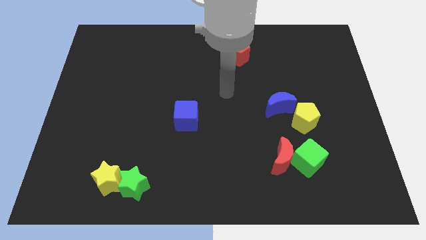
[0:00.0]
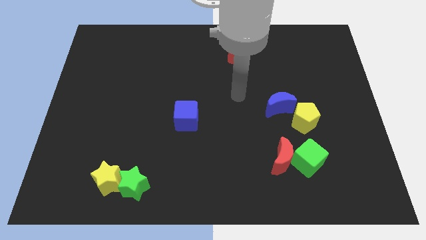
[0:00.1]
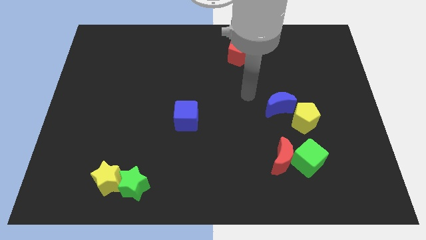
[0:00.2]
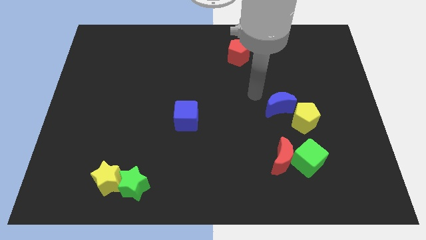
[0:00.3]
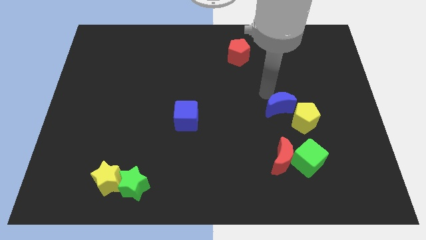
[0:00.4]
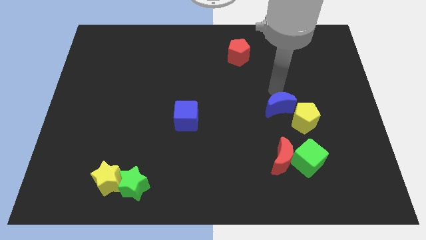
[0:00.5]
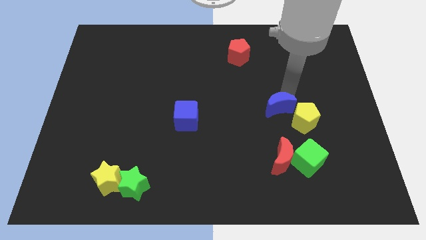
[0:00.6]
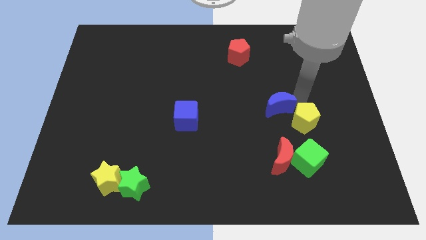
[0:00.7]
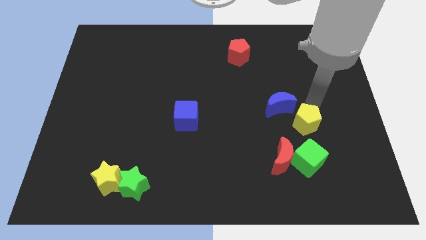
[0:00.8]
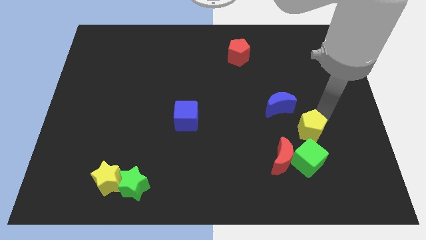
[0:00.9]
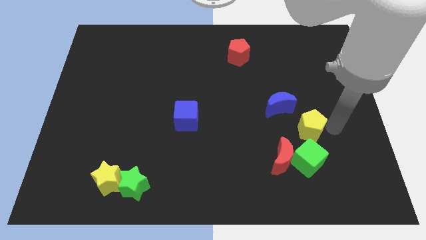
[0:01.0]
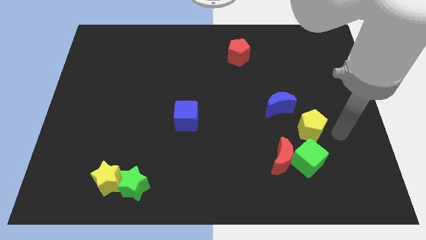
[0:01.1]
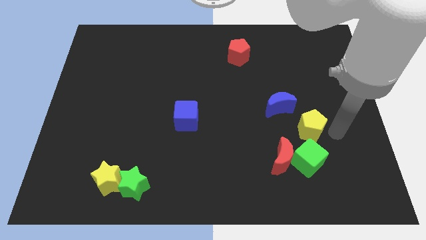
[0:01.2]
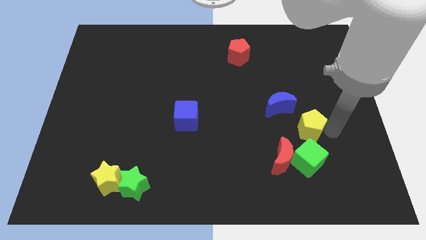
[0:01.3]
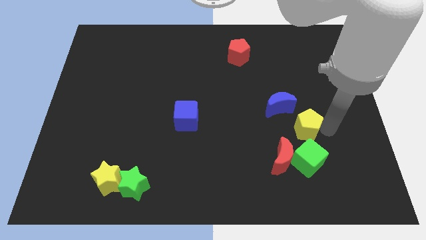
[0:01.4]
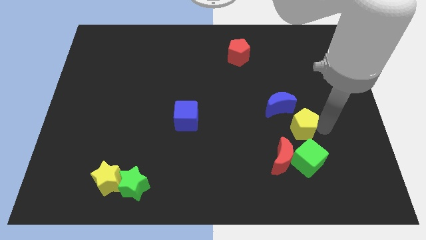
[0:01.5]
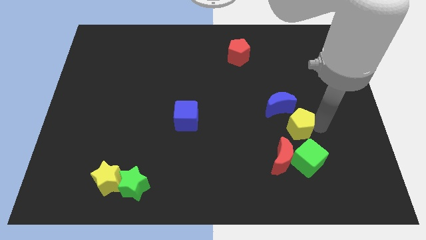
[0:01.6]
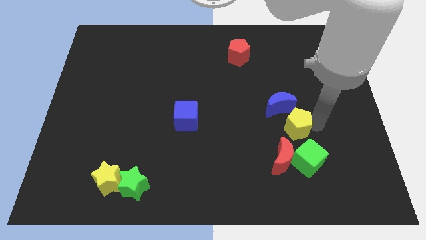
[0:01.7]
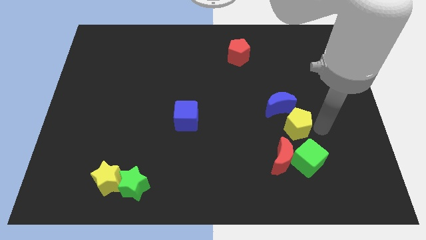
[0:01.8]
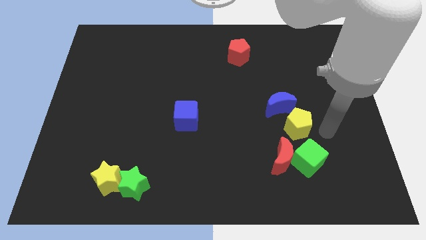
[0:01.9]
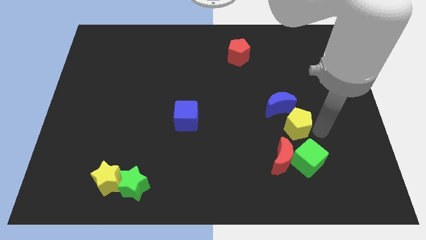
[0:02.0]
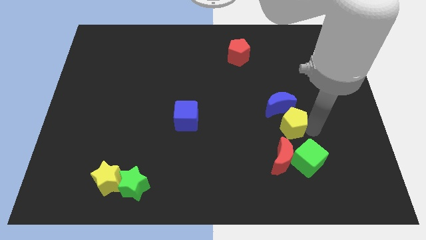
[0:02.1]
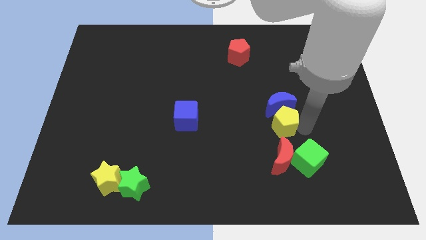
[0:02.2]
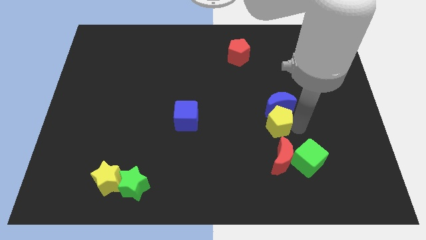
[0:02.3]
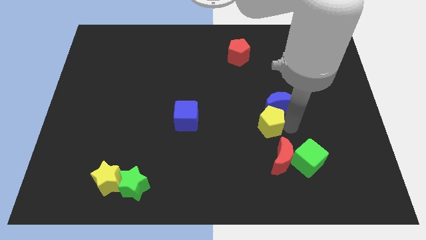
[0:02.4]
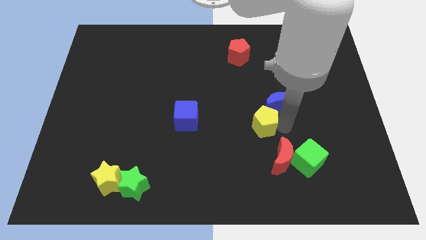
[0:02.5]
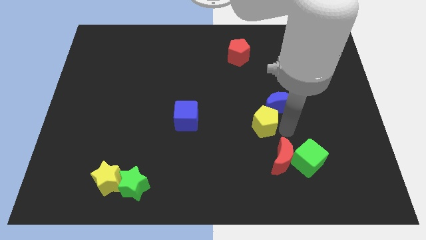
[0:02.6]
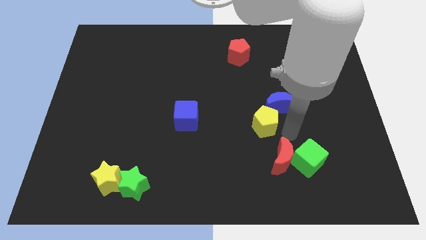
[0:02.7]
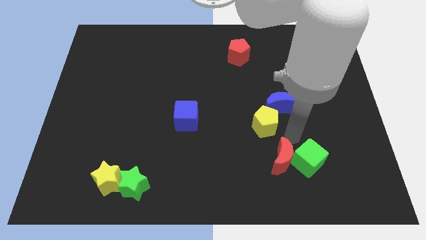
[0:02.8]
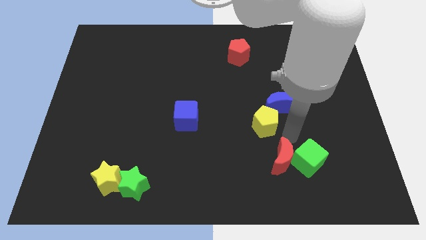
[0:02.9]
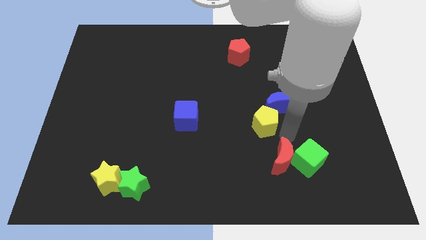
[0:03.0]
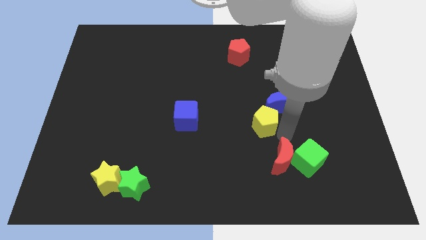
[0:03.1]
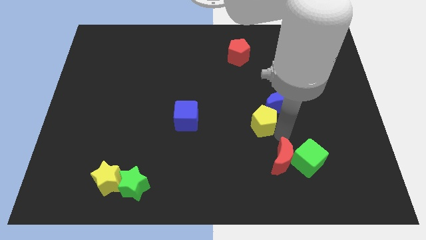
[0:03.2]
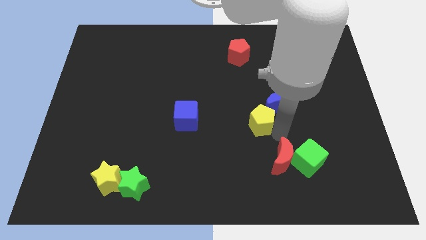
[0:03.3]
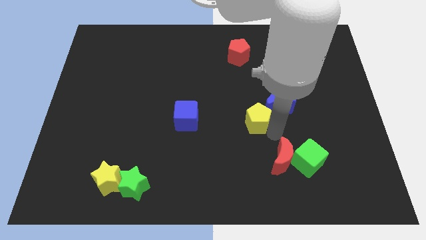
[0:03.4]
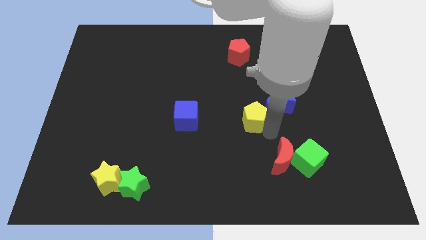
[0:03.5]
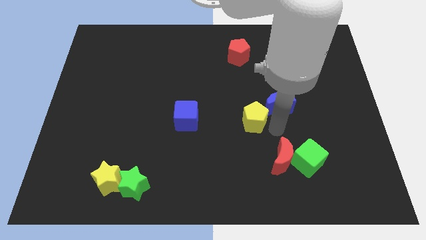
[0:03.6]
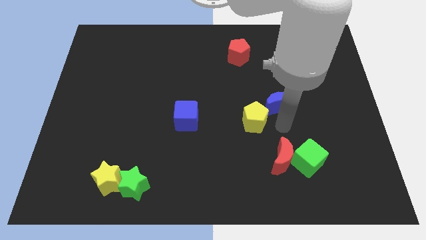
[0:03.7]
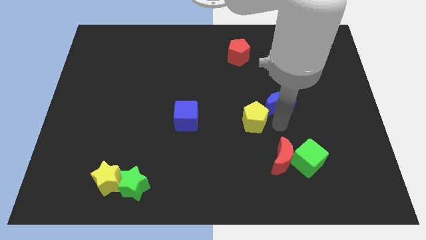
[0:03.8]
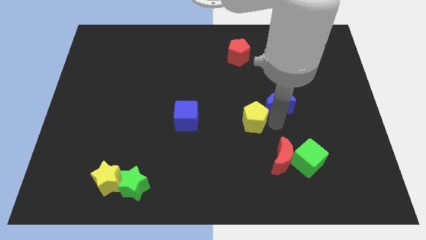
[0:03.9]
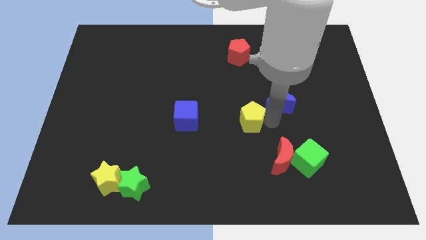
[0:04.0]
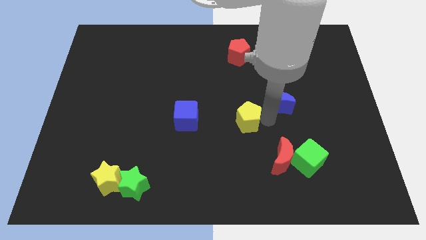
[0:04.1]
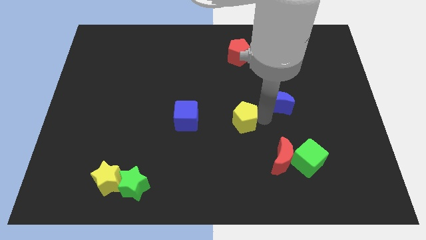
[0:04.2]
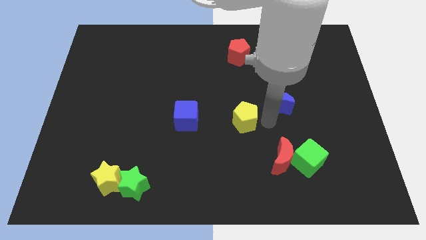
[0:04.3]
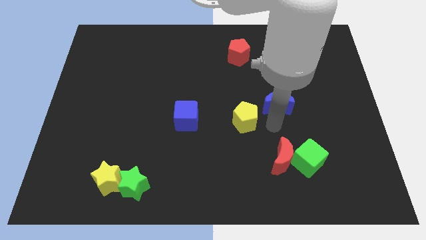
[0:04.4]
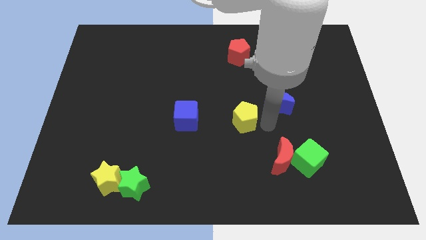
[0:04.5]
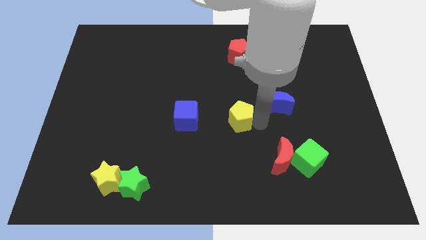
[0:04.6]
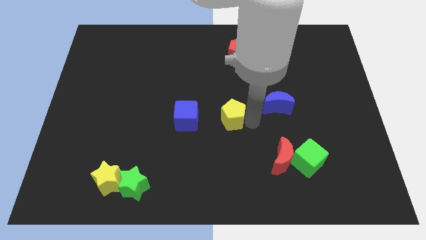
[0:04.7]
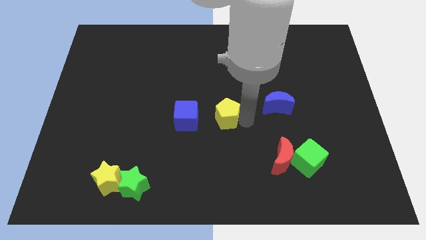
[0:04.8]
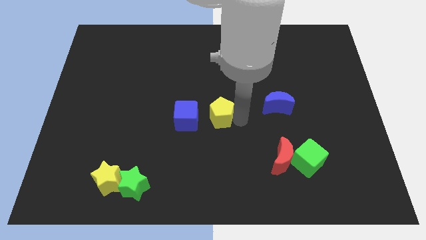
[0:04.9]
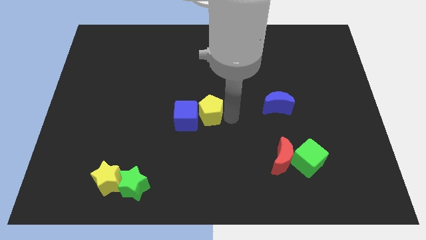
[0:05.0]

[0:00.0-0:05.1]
move the yellow pentagon next to the blue cube

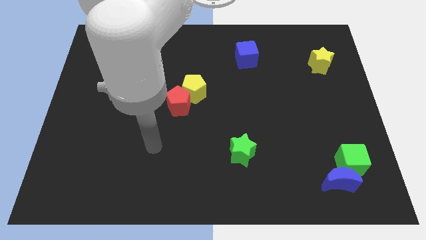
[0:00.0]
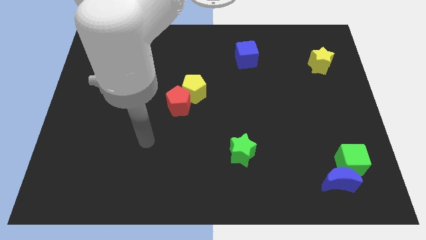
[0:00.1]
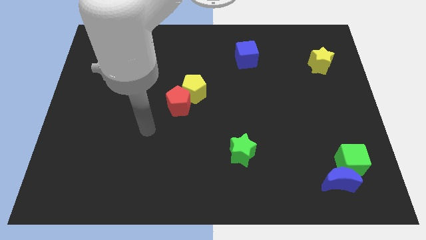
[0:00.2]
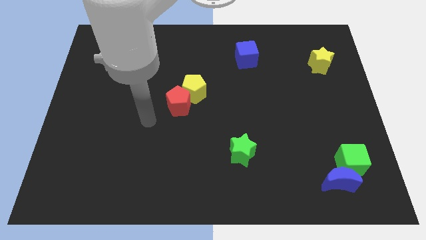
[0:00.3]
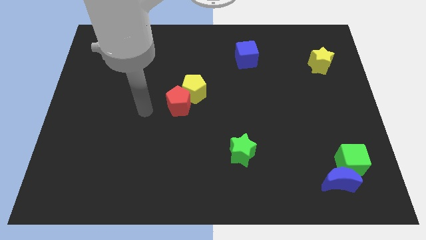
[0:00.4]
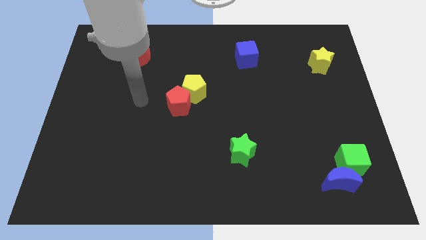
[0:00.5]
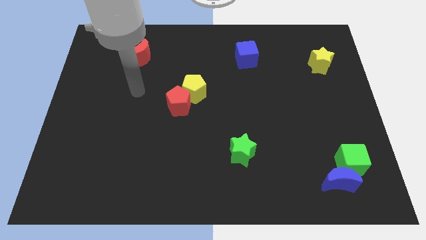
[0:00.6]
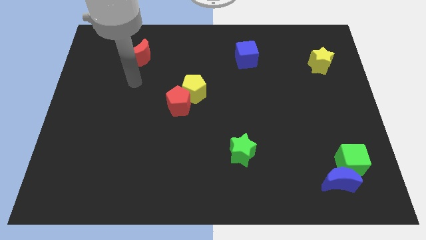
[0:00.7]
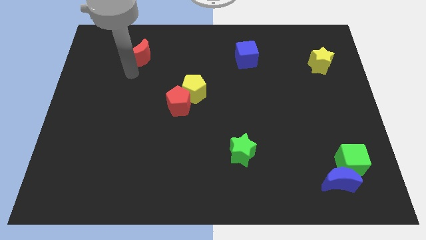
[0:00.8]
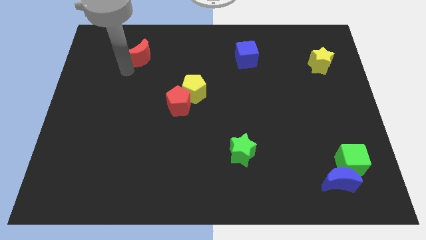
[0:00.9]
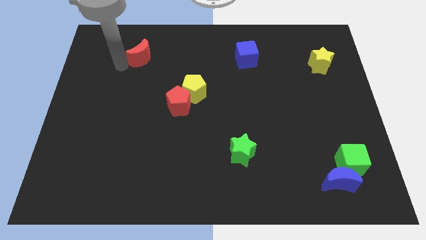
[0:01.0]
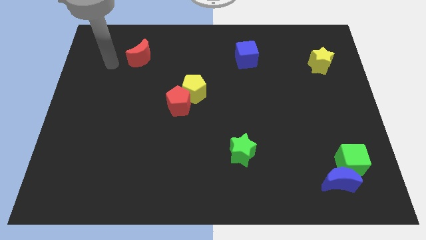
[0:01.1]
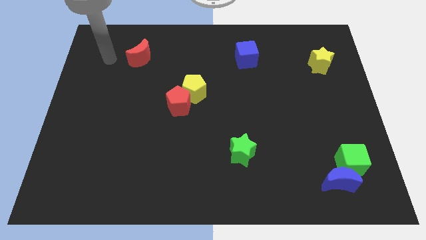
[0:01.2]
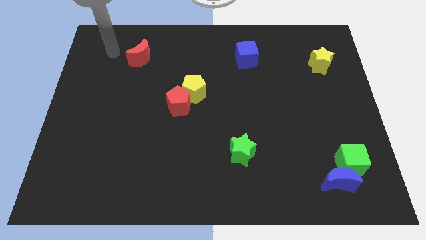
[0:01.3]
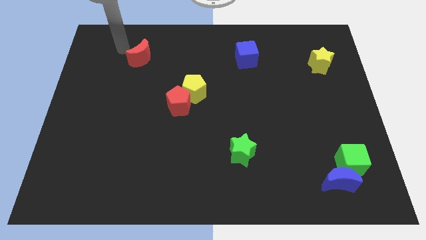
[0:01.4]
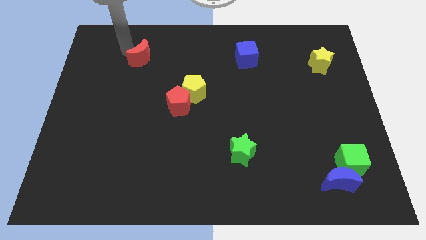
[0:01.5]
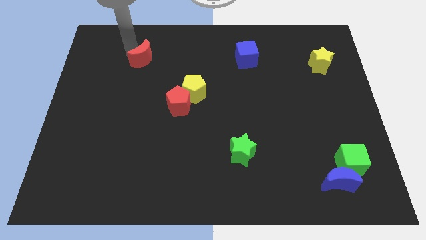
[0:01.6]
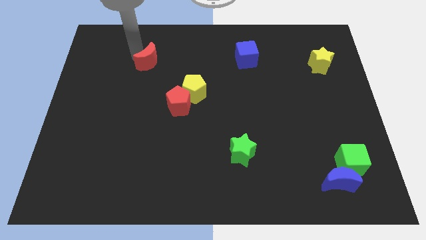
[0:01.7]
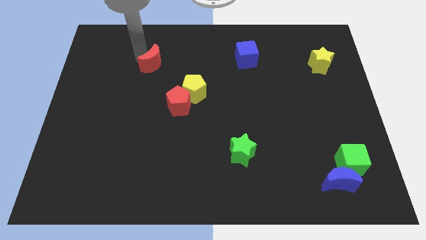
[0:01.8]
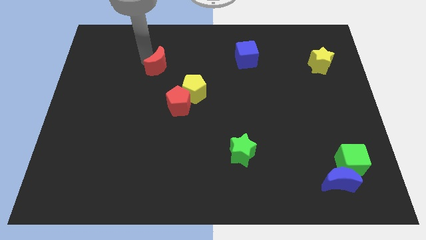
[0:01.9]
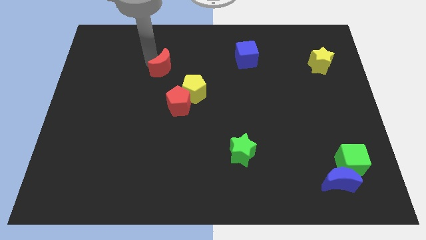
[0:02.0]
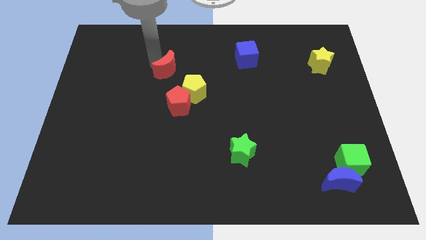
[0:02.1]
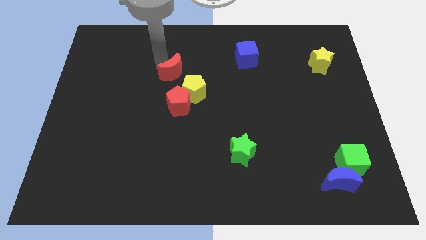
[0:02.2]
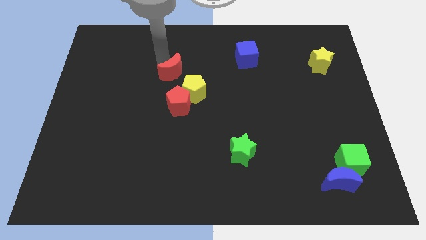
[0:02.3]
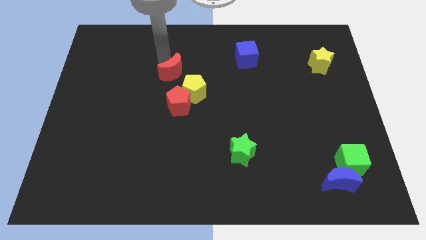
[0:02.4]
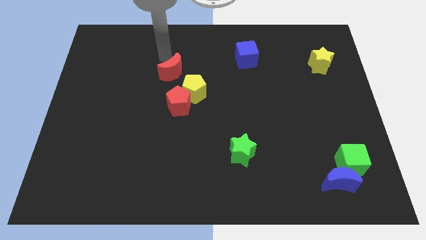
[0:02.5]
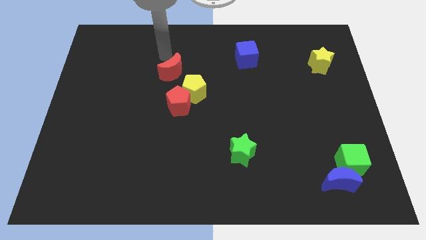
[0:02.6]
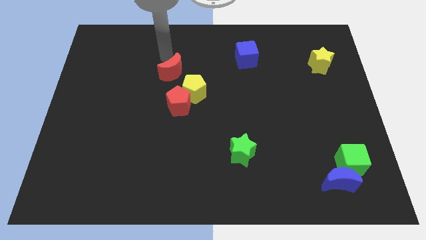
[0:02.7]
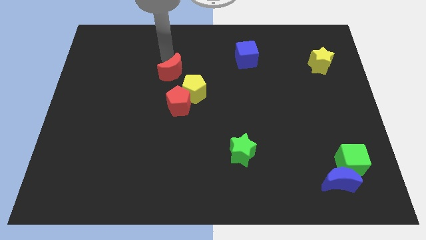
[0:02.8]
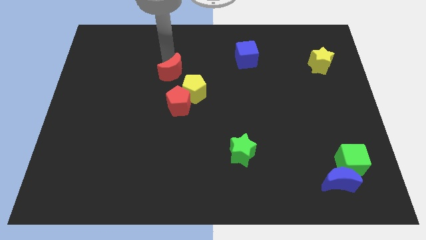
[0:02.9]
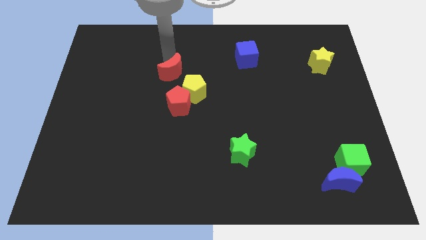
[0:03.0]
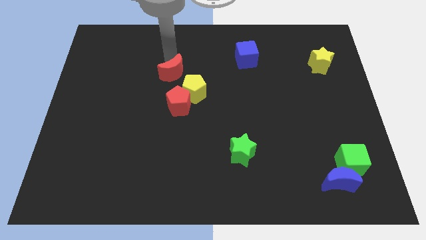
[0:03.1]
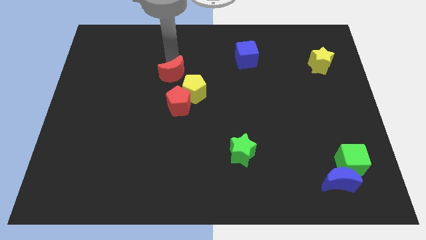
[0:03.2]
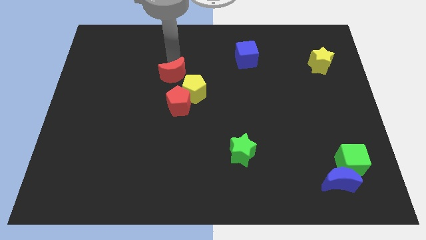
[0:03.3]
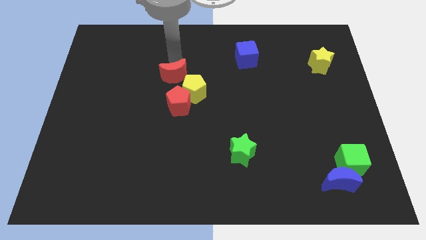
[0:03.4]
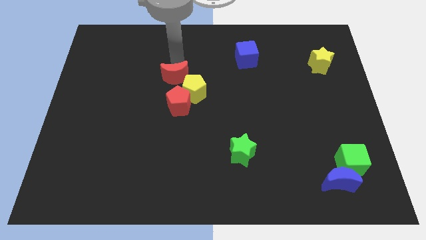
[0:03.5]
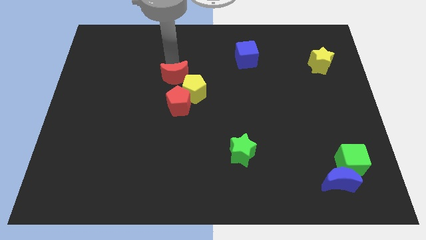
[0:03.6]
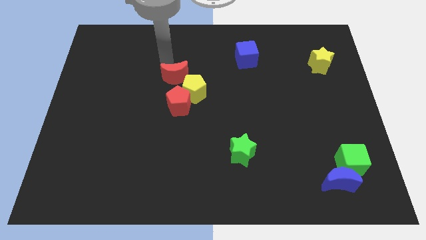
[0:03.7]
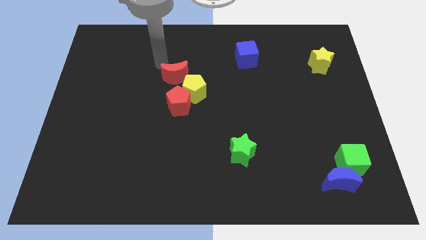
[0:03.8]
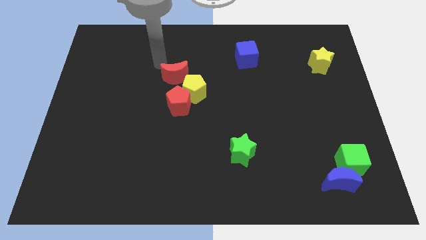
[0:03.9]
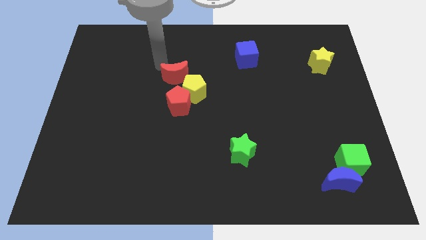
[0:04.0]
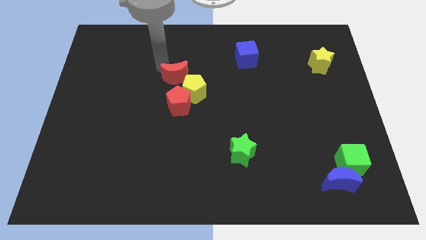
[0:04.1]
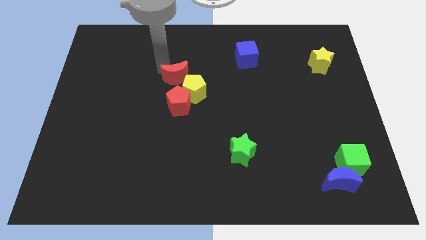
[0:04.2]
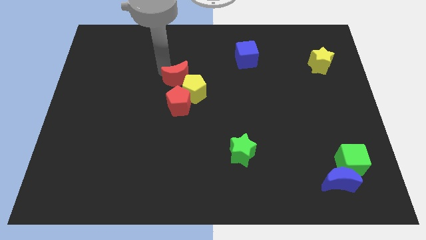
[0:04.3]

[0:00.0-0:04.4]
move the red moon to the yellow pentagon
